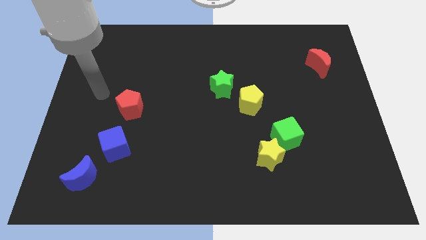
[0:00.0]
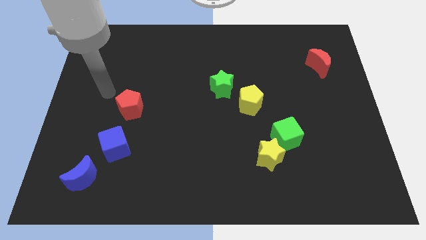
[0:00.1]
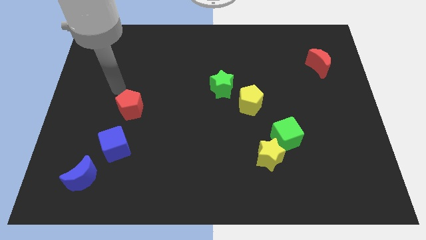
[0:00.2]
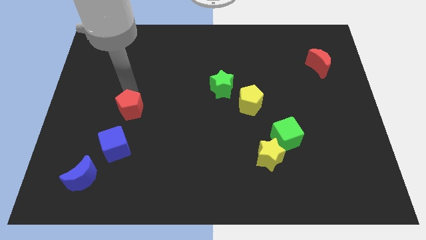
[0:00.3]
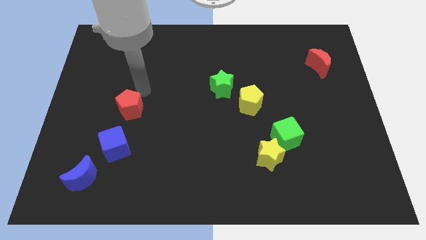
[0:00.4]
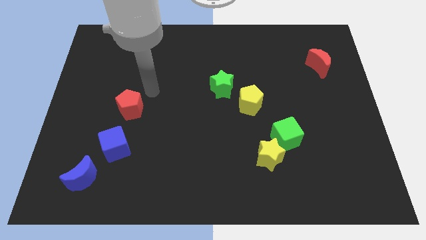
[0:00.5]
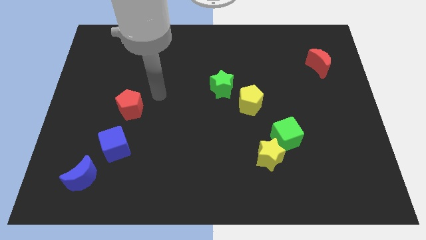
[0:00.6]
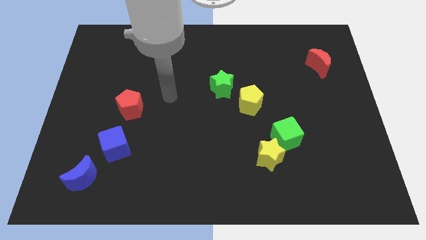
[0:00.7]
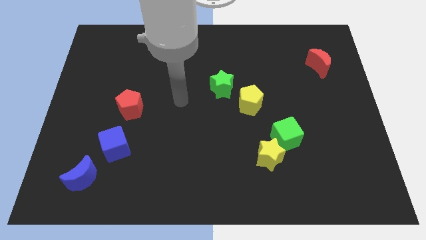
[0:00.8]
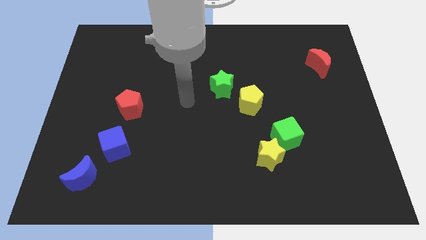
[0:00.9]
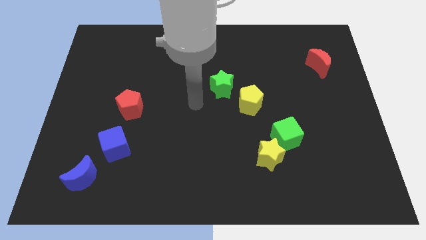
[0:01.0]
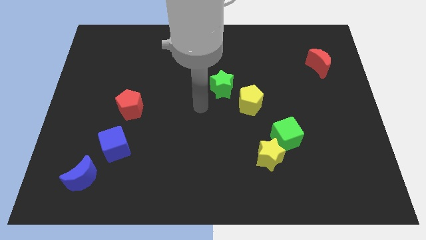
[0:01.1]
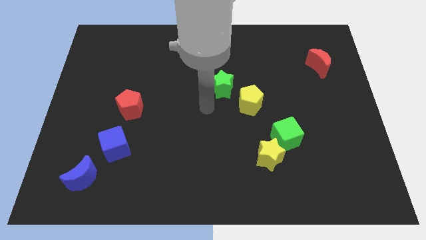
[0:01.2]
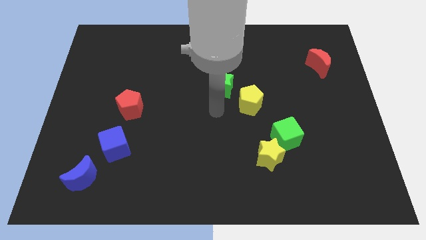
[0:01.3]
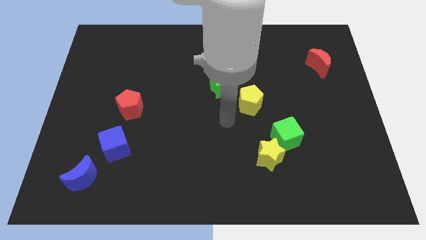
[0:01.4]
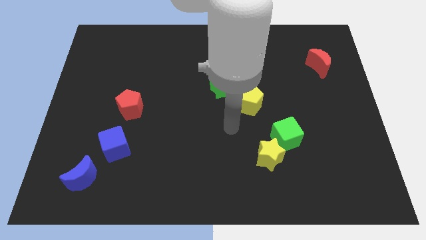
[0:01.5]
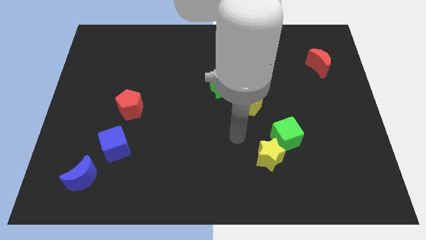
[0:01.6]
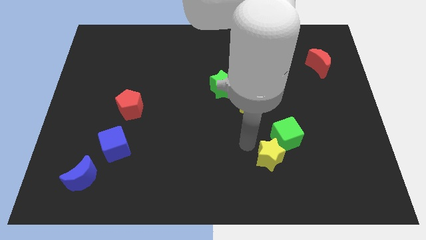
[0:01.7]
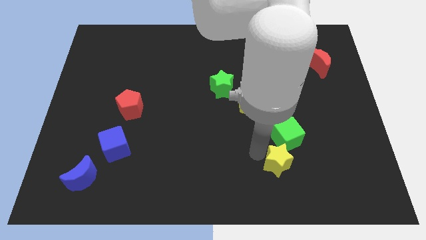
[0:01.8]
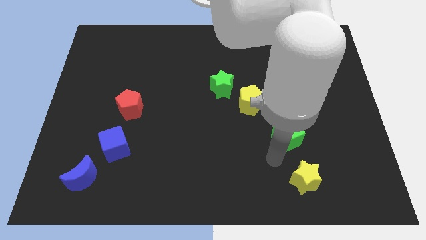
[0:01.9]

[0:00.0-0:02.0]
pull the green cube apart from the yellow star

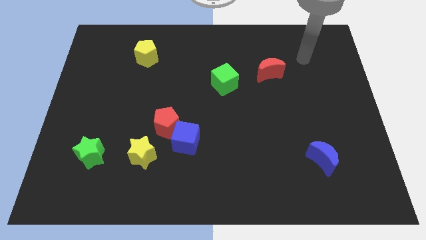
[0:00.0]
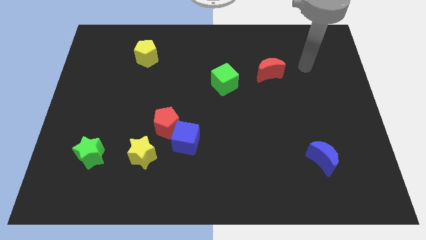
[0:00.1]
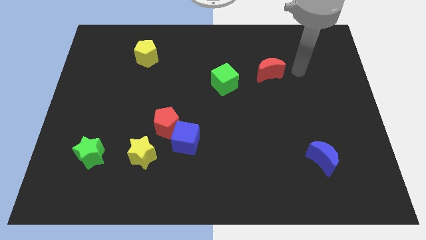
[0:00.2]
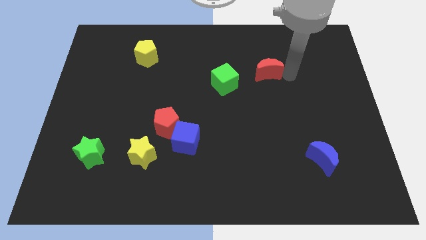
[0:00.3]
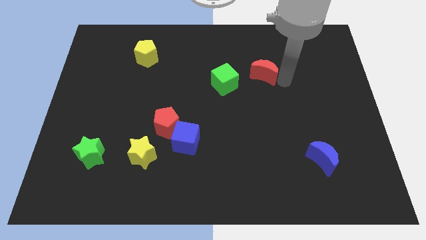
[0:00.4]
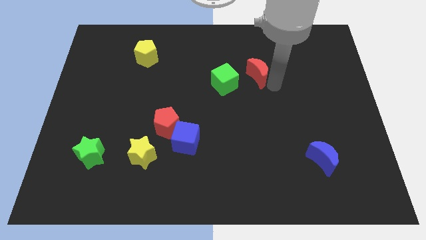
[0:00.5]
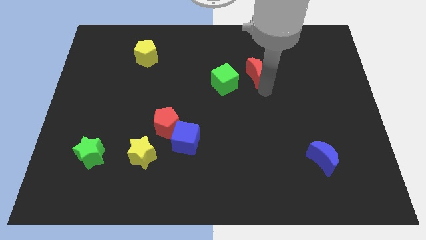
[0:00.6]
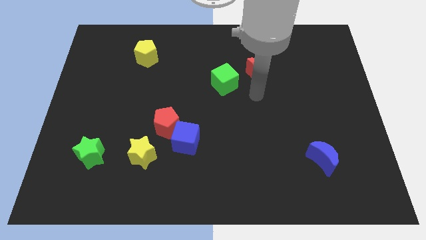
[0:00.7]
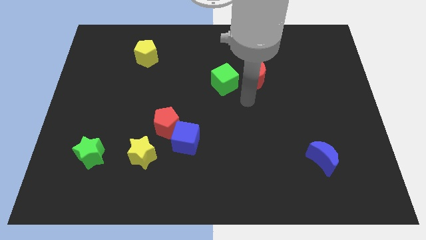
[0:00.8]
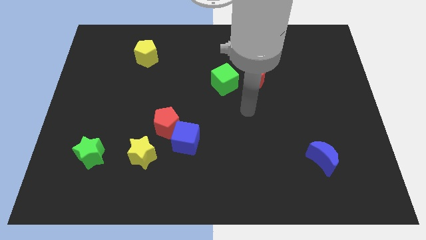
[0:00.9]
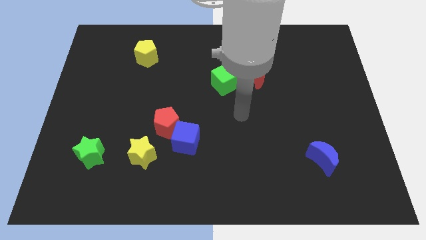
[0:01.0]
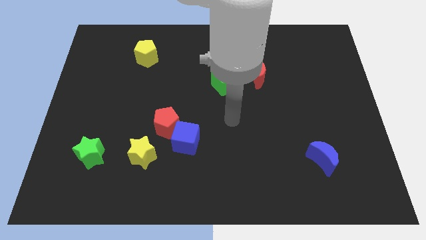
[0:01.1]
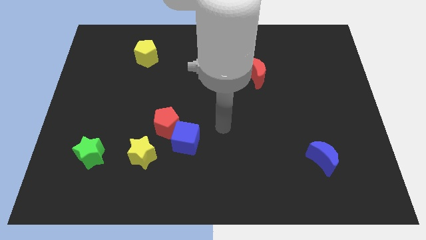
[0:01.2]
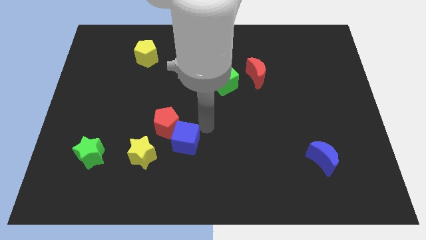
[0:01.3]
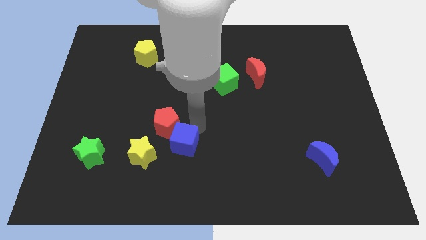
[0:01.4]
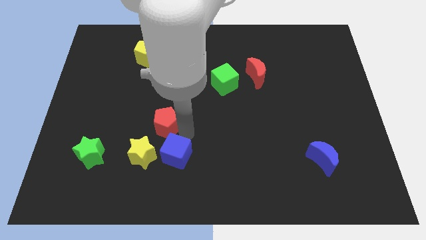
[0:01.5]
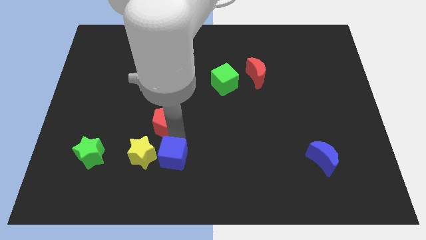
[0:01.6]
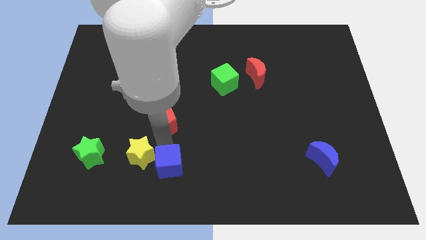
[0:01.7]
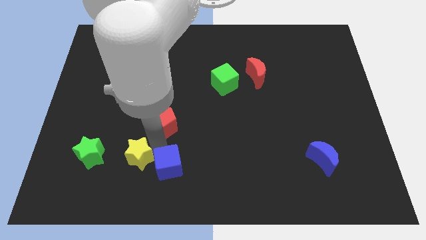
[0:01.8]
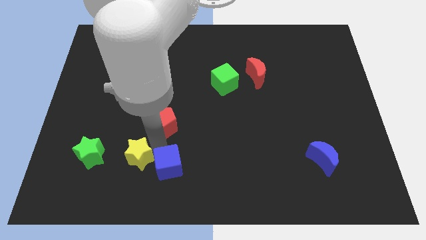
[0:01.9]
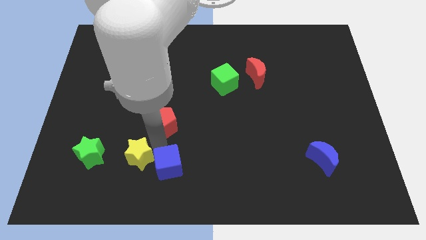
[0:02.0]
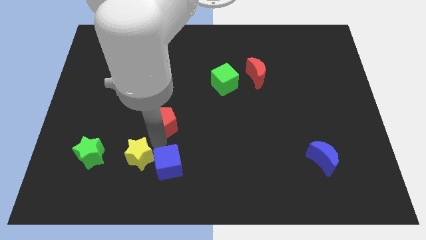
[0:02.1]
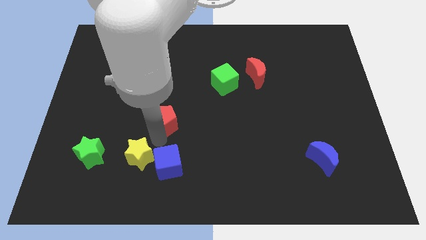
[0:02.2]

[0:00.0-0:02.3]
pull the red pentagon apart from the blue cube and yellow star

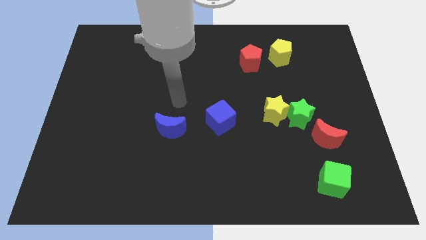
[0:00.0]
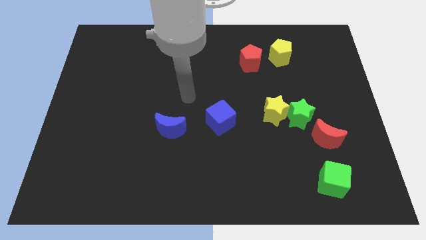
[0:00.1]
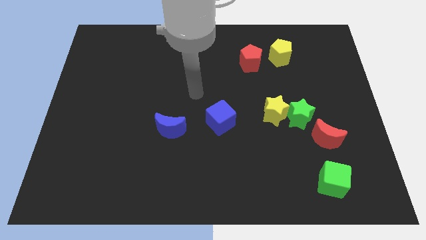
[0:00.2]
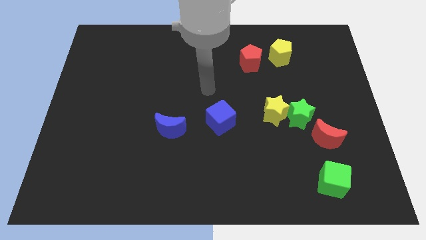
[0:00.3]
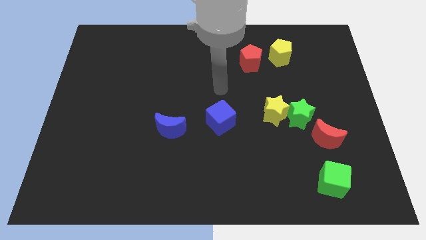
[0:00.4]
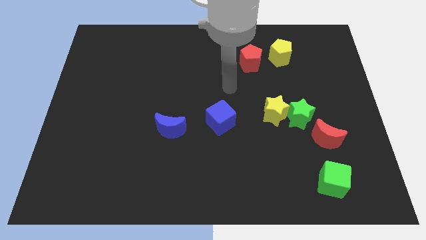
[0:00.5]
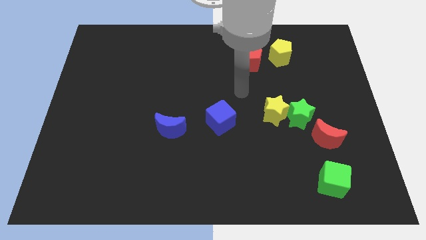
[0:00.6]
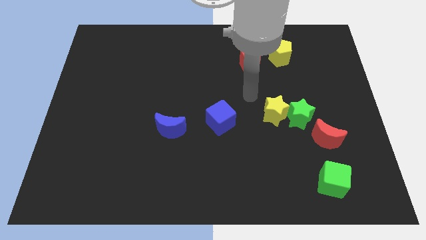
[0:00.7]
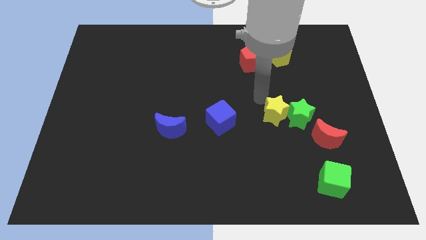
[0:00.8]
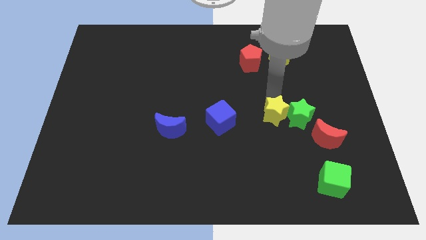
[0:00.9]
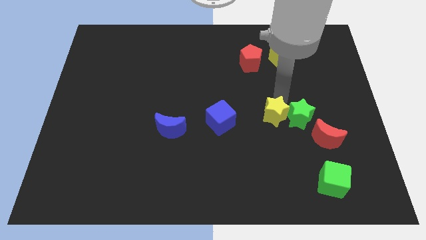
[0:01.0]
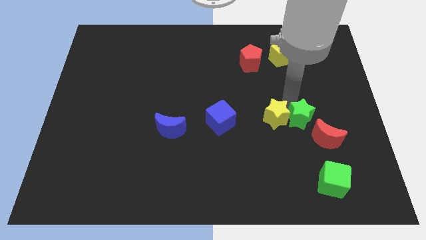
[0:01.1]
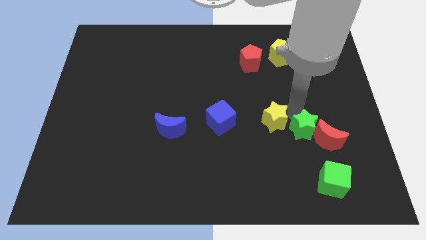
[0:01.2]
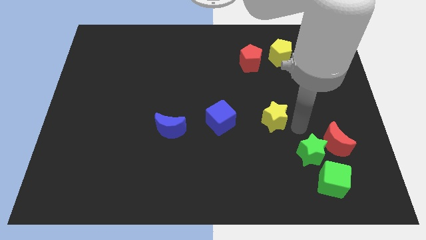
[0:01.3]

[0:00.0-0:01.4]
separate the yellow star from the green star

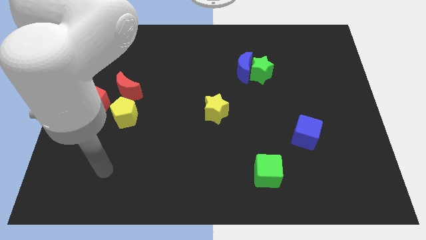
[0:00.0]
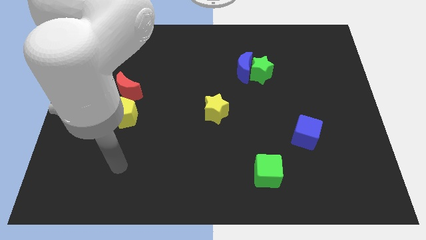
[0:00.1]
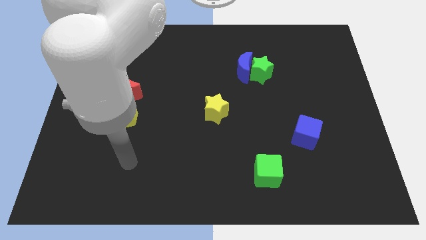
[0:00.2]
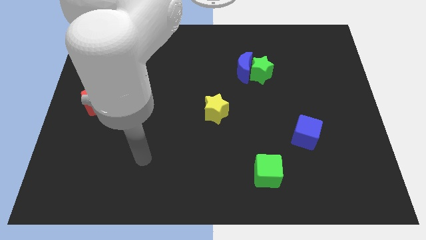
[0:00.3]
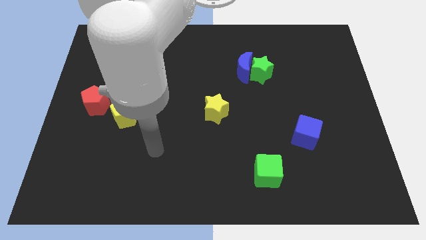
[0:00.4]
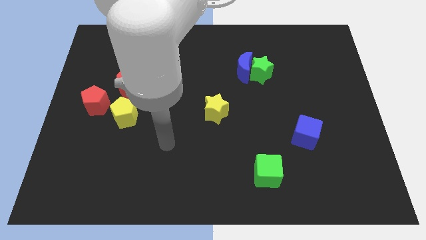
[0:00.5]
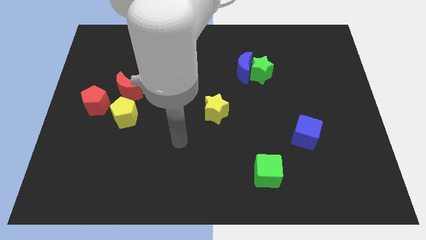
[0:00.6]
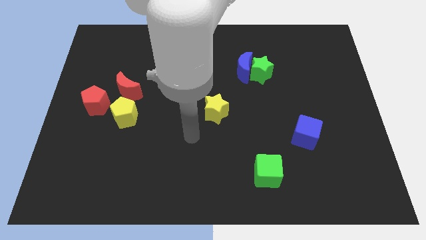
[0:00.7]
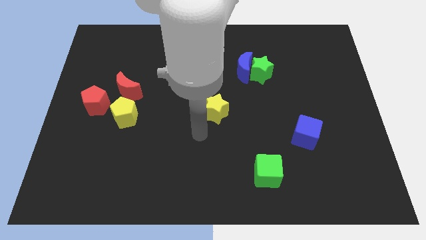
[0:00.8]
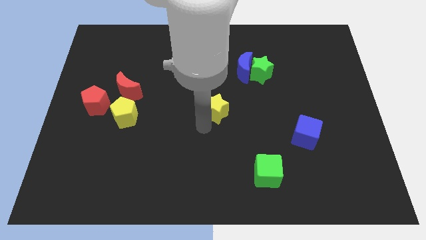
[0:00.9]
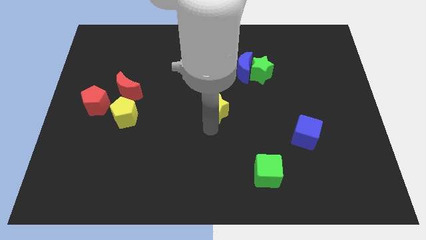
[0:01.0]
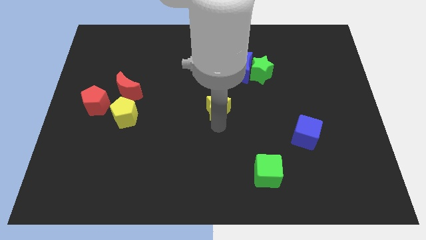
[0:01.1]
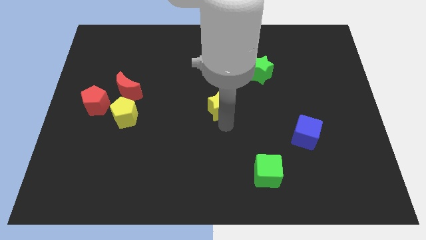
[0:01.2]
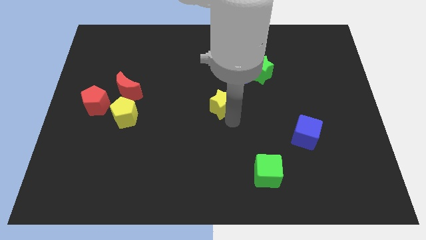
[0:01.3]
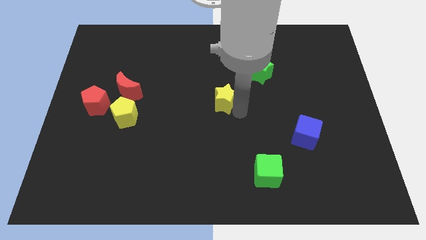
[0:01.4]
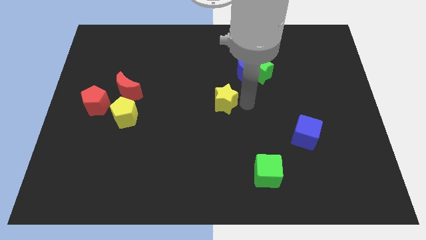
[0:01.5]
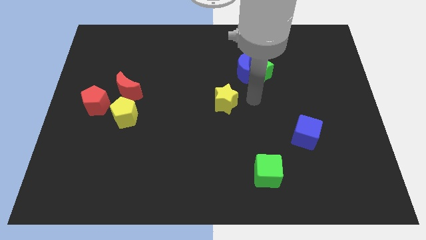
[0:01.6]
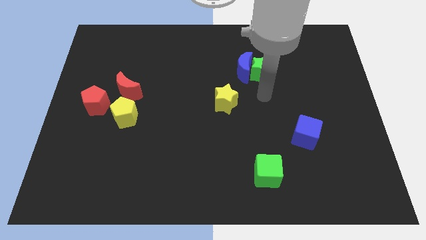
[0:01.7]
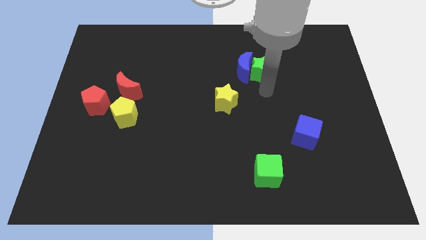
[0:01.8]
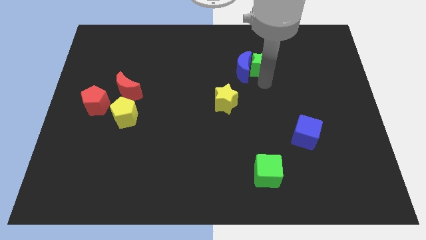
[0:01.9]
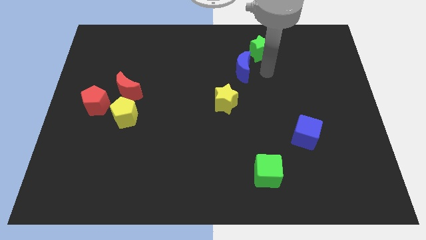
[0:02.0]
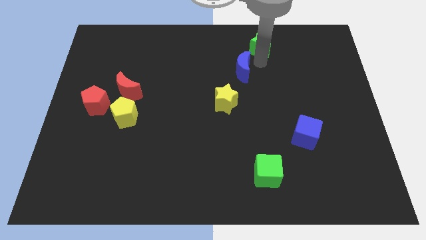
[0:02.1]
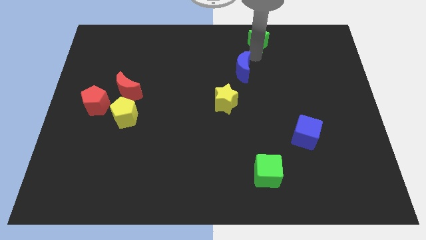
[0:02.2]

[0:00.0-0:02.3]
pull the blue moon apart from the green star

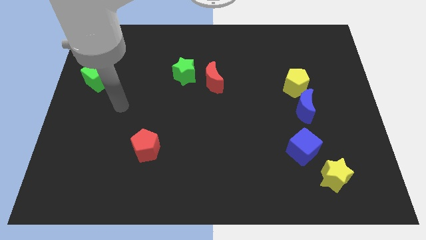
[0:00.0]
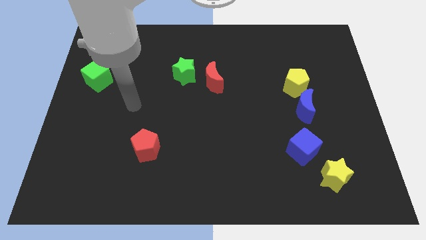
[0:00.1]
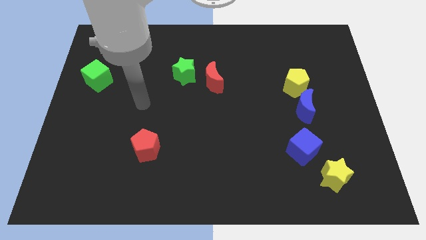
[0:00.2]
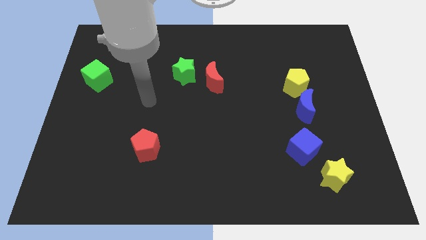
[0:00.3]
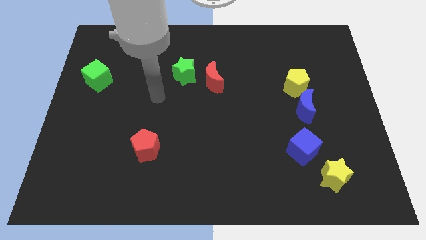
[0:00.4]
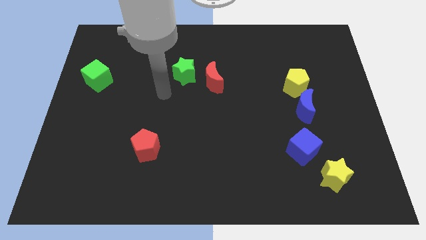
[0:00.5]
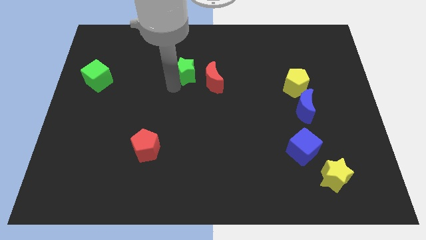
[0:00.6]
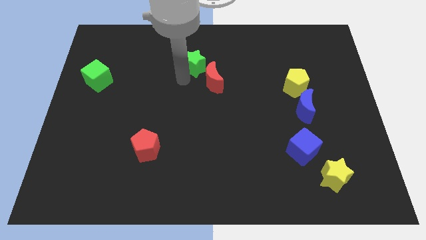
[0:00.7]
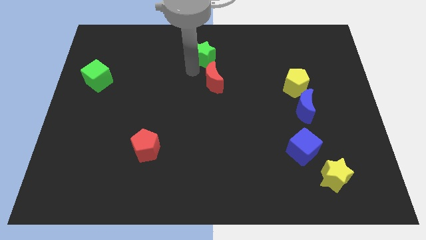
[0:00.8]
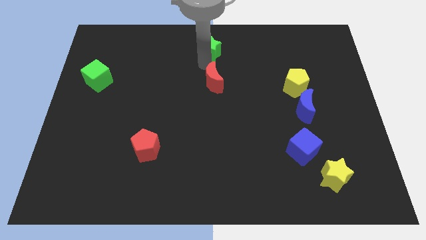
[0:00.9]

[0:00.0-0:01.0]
pull the red moon apart from the green star

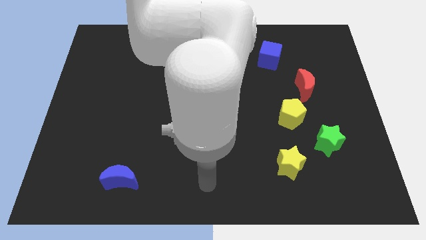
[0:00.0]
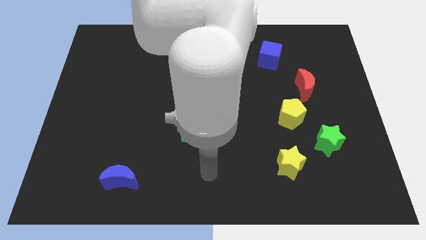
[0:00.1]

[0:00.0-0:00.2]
move the red moon away from the yellow pentagon
